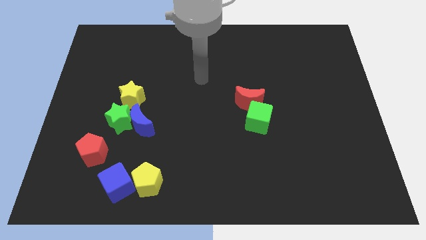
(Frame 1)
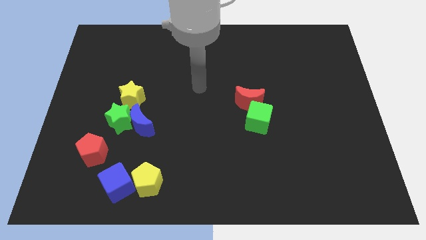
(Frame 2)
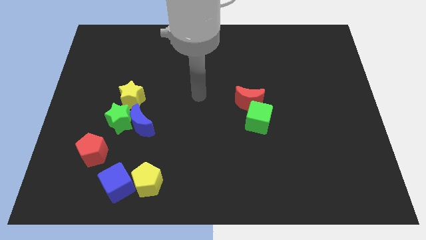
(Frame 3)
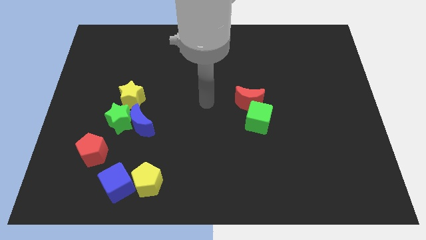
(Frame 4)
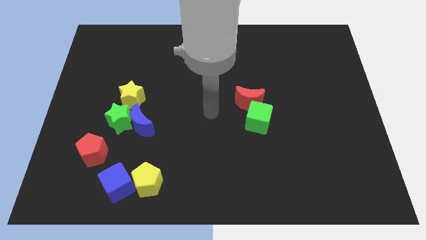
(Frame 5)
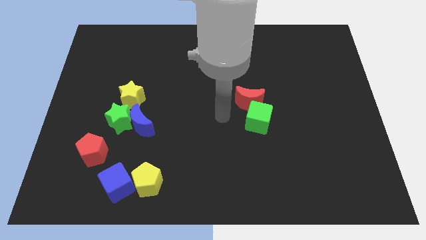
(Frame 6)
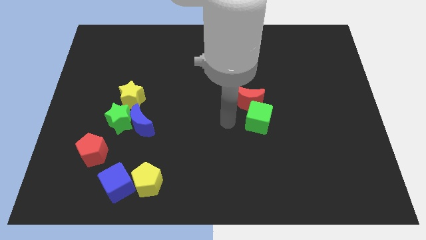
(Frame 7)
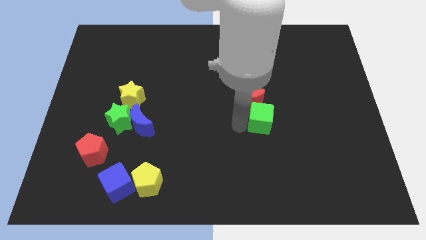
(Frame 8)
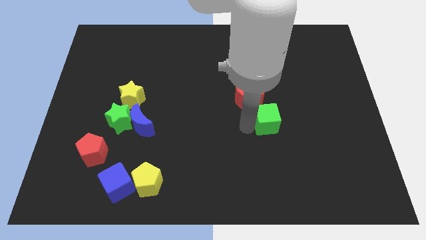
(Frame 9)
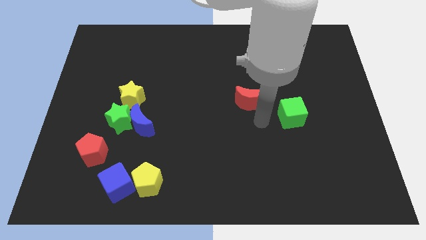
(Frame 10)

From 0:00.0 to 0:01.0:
move the red moon away from the green cube

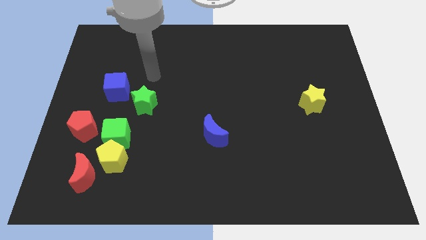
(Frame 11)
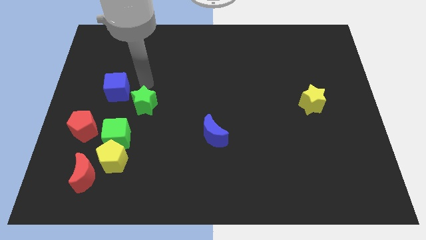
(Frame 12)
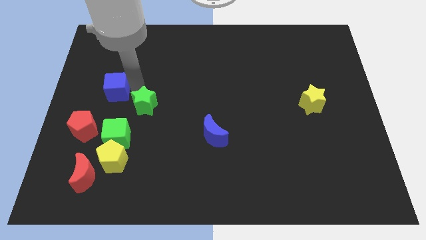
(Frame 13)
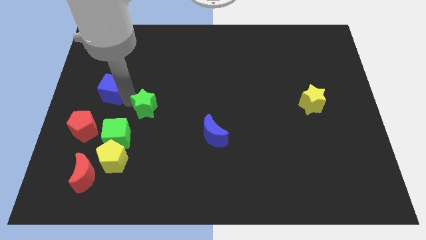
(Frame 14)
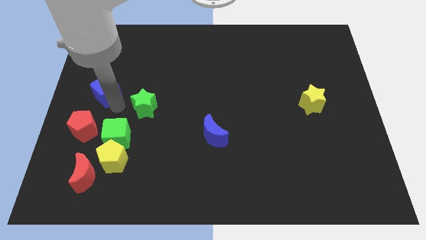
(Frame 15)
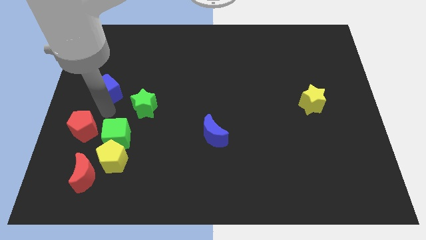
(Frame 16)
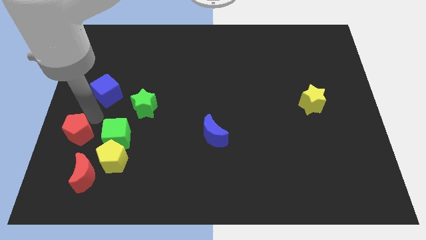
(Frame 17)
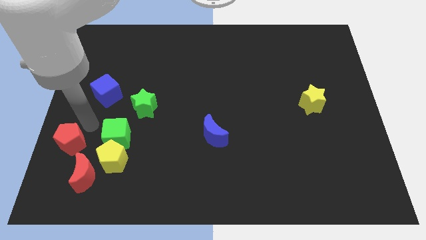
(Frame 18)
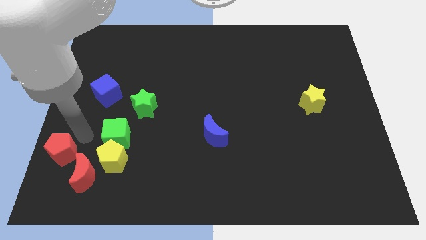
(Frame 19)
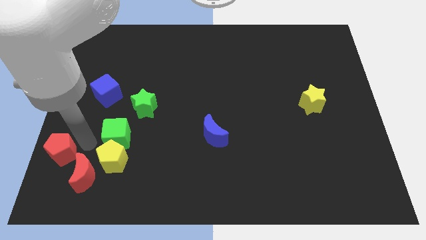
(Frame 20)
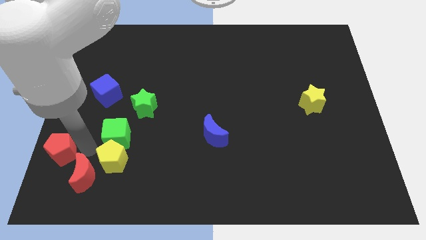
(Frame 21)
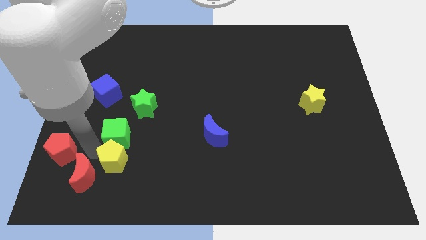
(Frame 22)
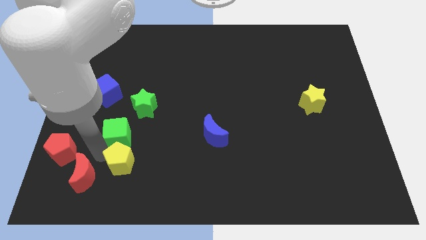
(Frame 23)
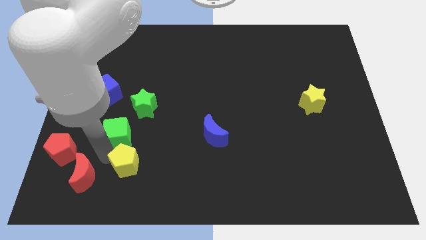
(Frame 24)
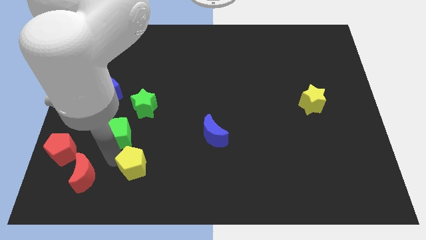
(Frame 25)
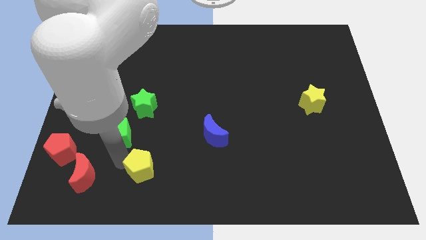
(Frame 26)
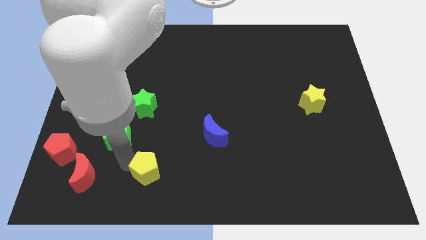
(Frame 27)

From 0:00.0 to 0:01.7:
move the yellow pentagon away from the green cube and red moon

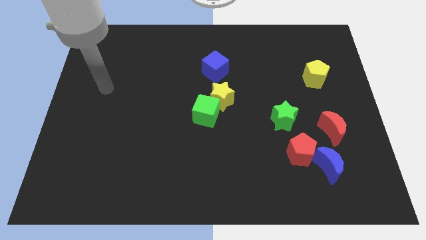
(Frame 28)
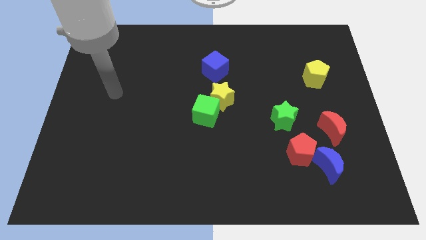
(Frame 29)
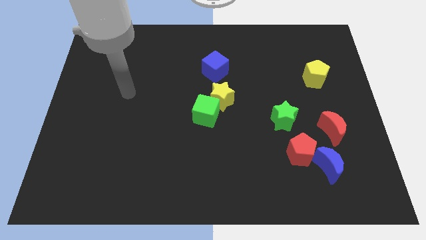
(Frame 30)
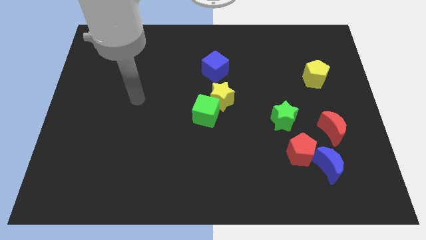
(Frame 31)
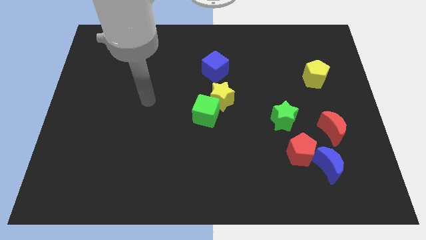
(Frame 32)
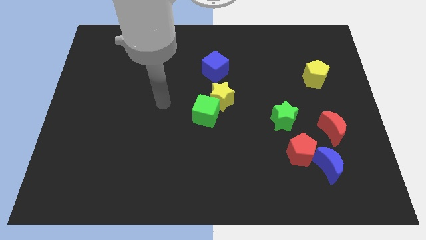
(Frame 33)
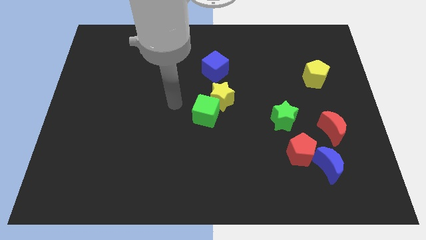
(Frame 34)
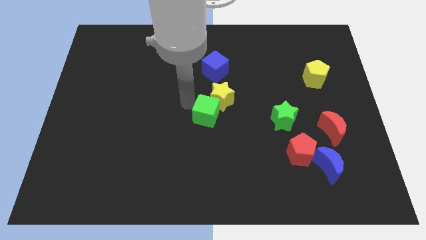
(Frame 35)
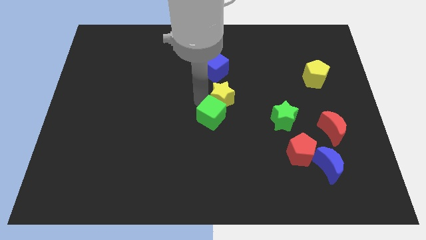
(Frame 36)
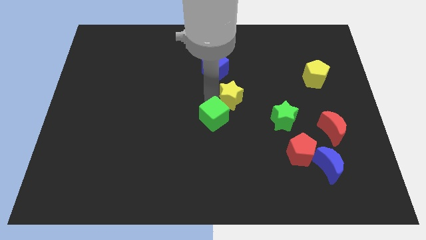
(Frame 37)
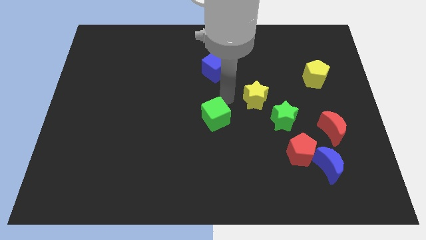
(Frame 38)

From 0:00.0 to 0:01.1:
pull the green cube apart from the yellow star

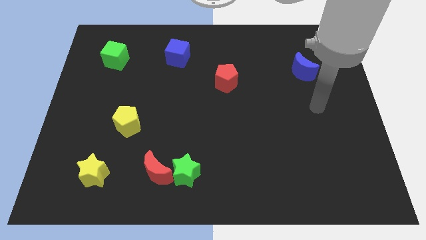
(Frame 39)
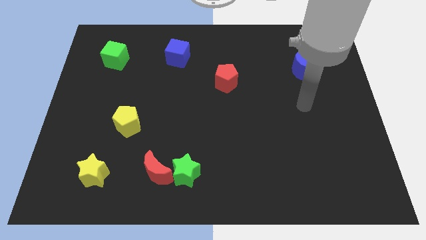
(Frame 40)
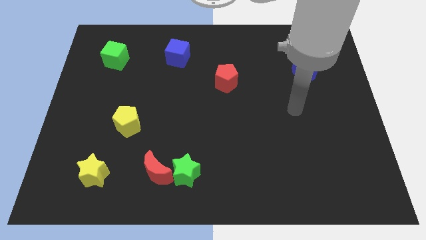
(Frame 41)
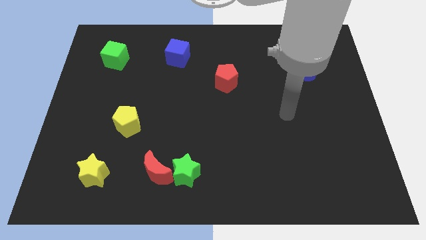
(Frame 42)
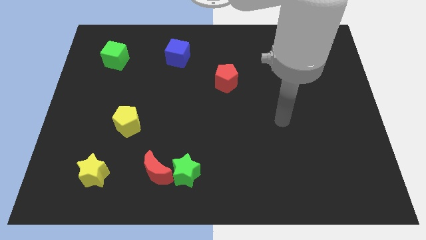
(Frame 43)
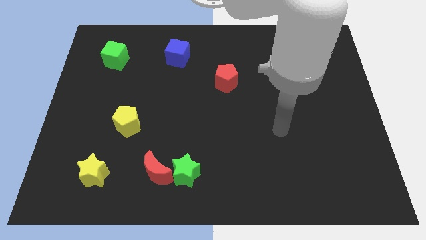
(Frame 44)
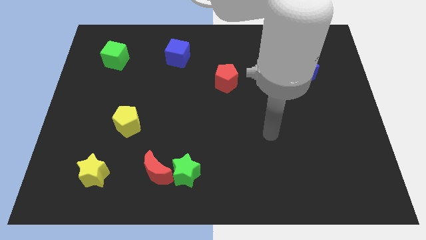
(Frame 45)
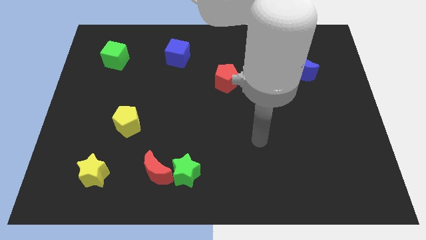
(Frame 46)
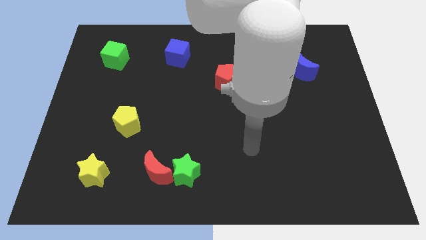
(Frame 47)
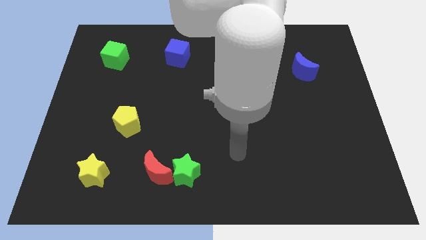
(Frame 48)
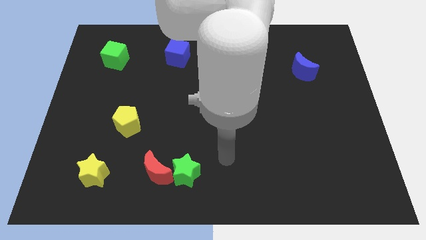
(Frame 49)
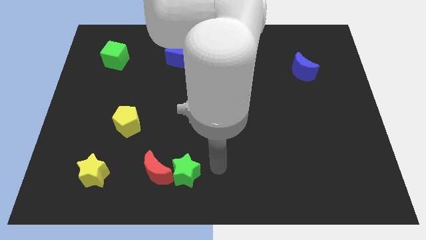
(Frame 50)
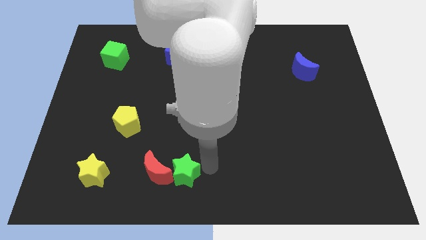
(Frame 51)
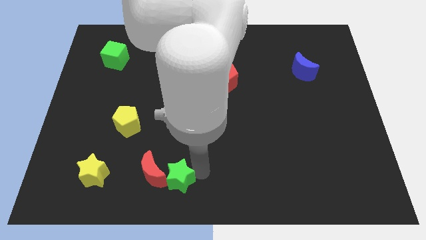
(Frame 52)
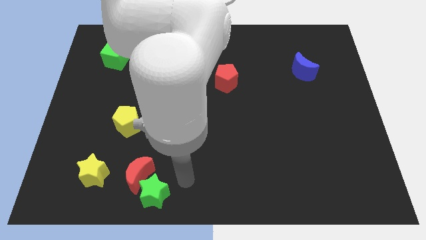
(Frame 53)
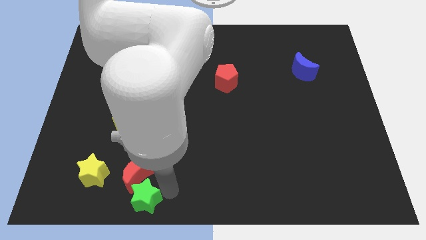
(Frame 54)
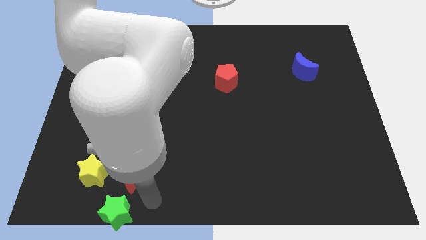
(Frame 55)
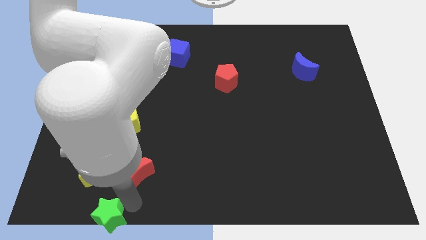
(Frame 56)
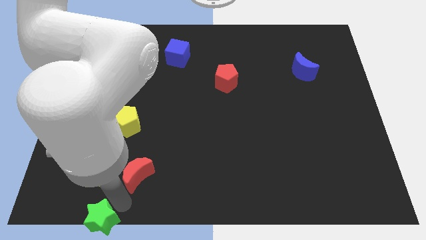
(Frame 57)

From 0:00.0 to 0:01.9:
move the red moon away from the green star

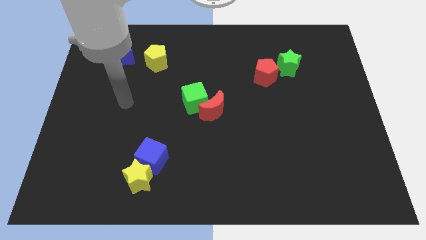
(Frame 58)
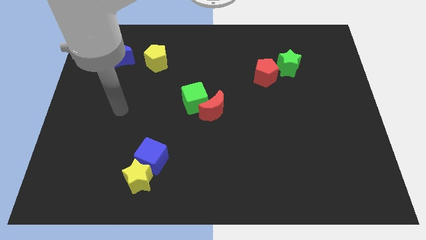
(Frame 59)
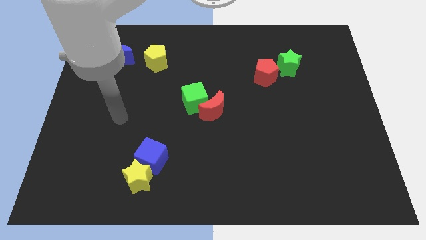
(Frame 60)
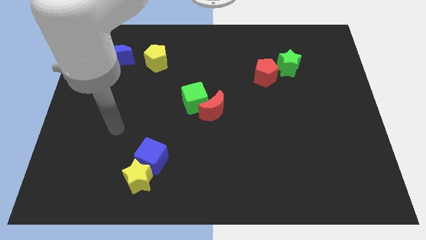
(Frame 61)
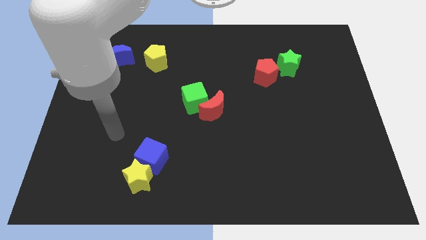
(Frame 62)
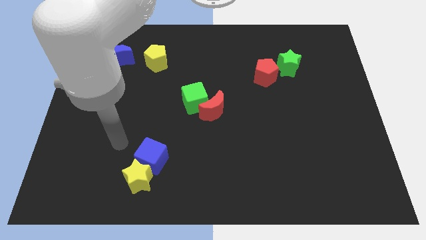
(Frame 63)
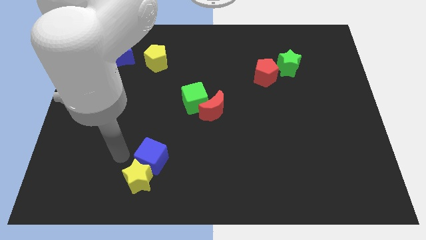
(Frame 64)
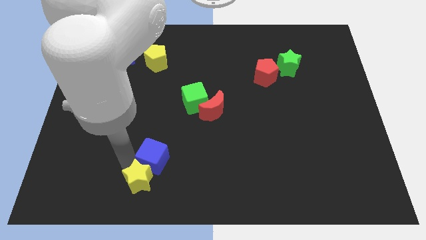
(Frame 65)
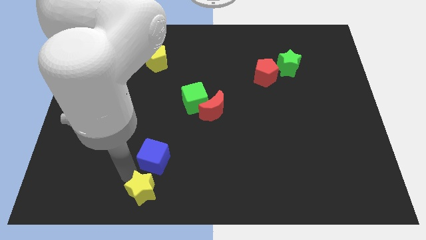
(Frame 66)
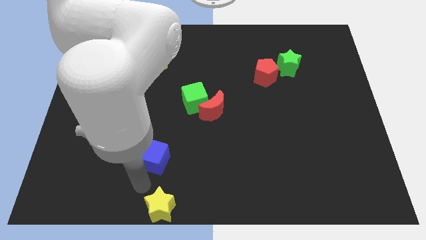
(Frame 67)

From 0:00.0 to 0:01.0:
separate the blue cube from the yellow star

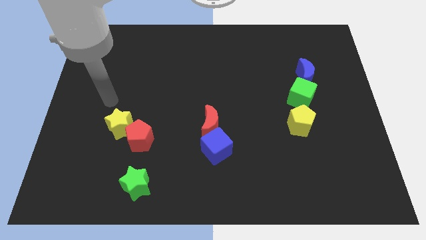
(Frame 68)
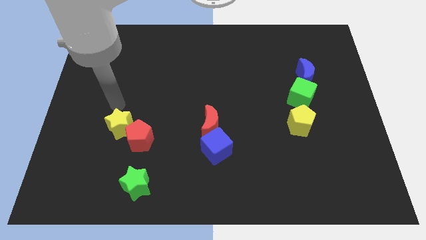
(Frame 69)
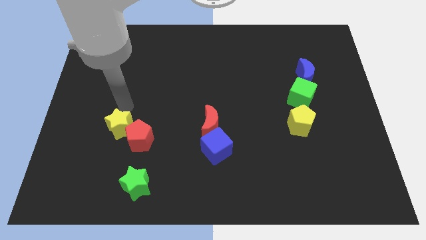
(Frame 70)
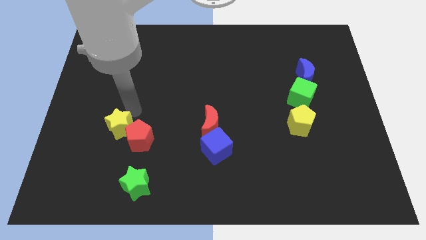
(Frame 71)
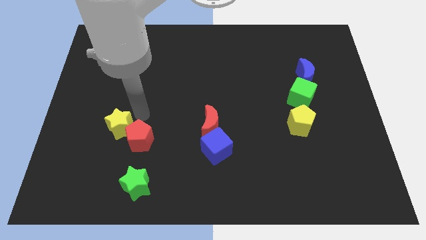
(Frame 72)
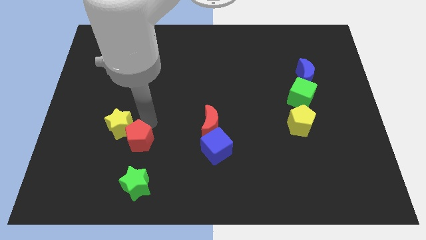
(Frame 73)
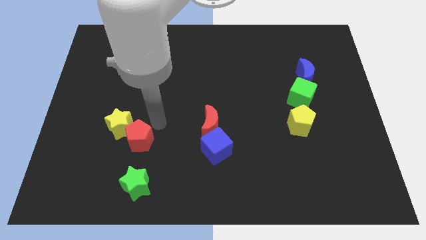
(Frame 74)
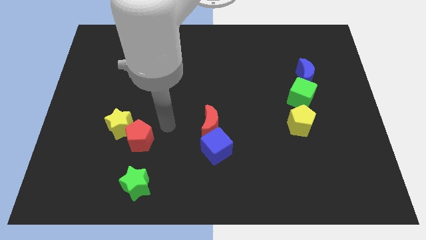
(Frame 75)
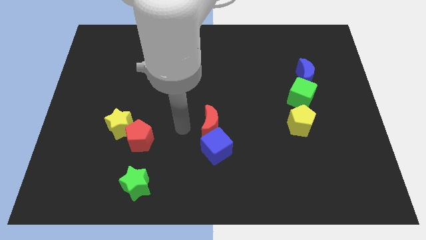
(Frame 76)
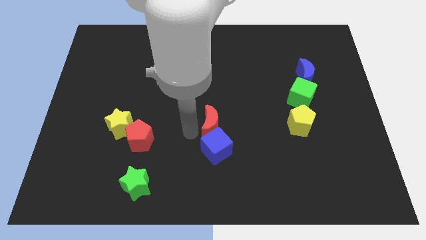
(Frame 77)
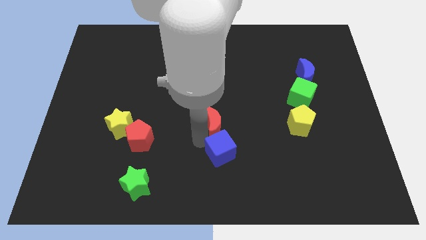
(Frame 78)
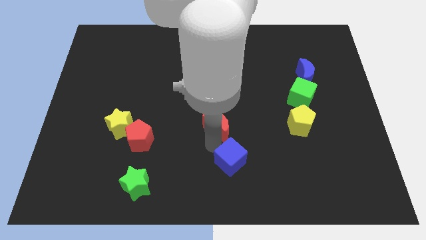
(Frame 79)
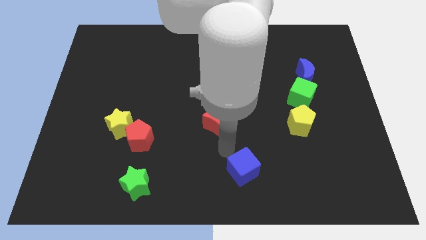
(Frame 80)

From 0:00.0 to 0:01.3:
pull the red moon apart from the blue cube

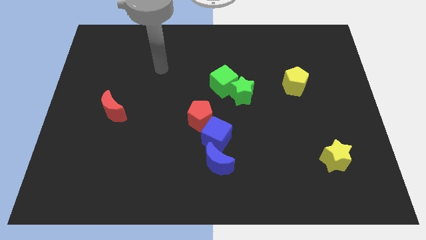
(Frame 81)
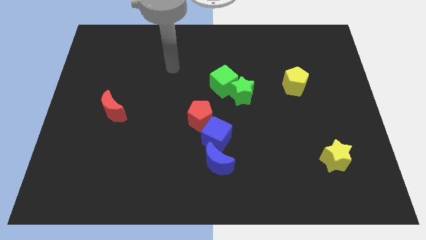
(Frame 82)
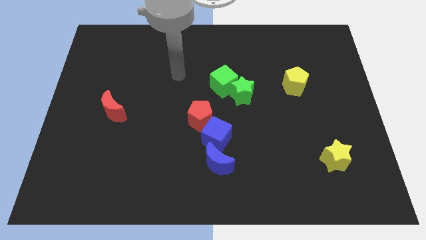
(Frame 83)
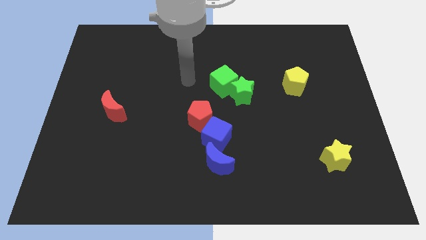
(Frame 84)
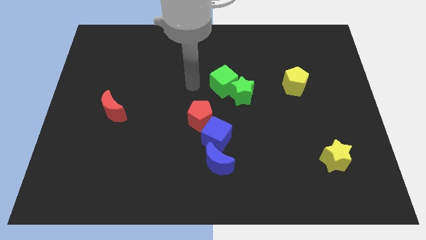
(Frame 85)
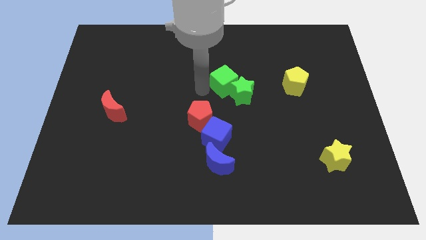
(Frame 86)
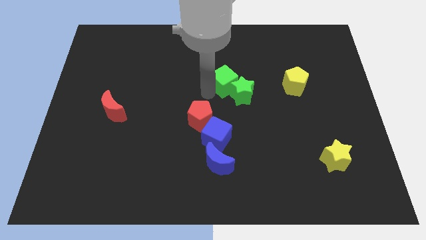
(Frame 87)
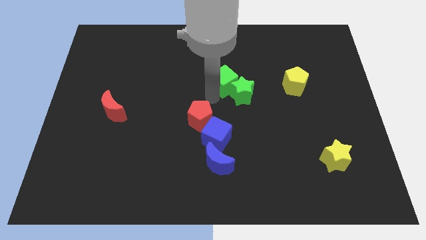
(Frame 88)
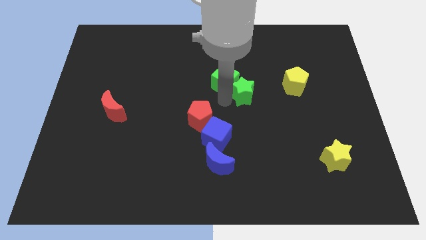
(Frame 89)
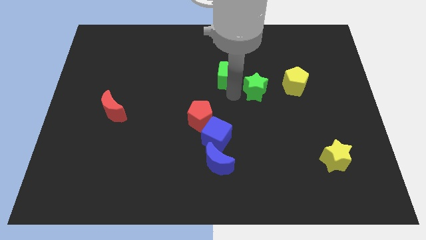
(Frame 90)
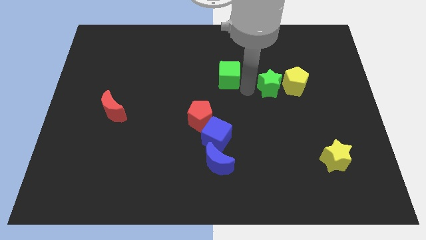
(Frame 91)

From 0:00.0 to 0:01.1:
separate the green cube from the green star
